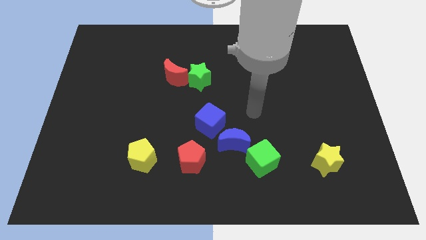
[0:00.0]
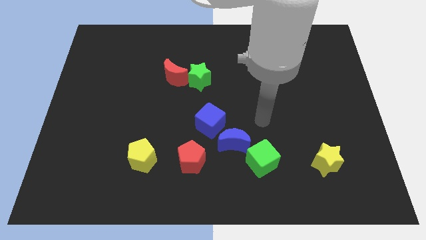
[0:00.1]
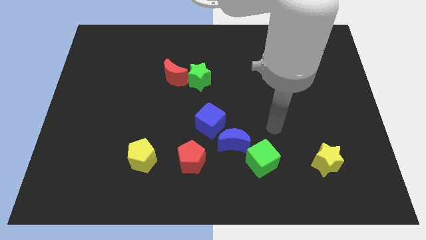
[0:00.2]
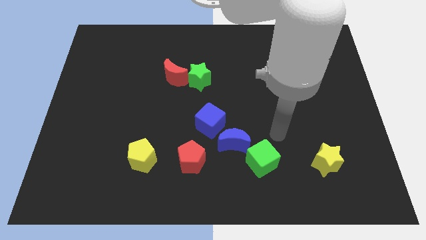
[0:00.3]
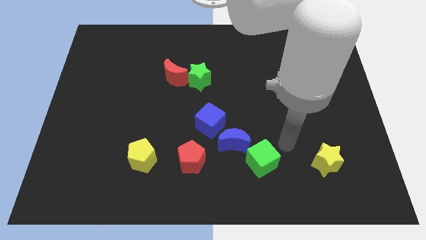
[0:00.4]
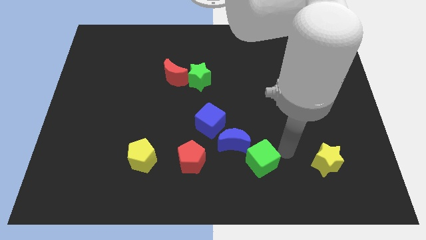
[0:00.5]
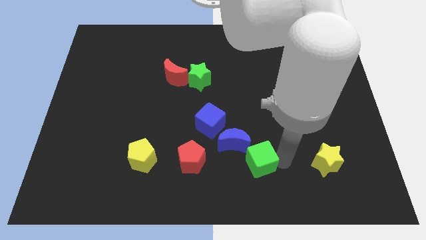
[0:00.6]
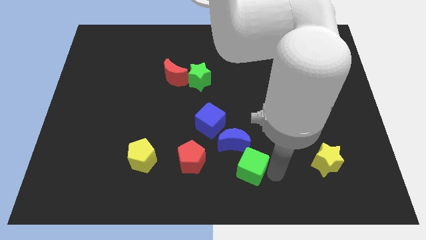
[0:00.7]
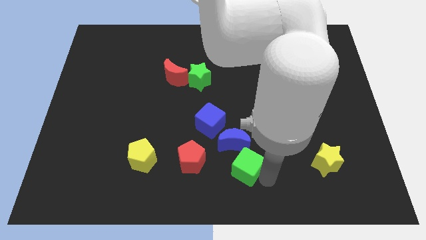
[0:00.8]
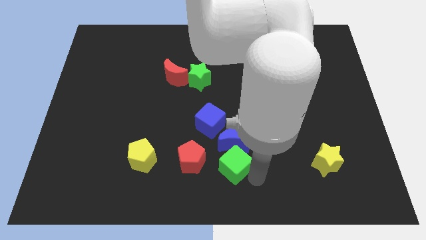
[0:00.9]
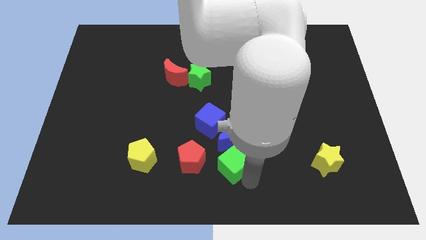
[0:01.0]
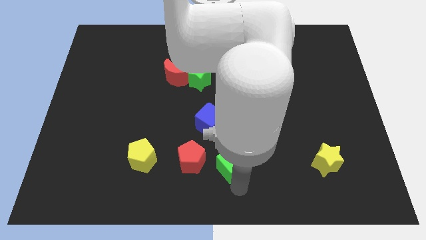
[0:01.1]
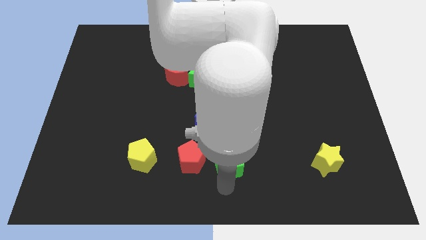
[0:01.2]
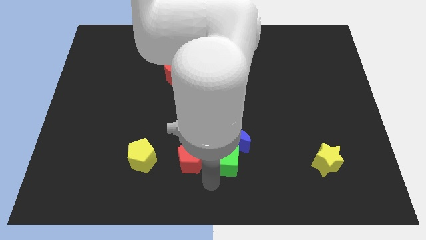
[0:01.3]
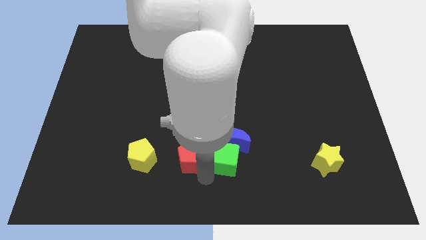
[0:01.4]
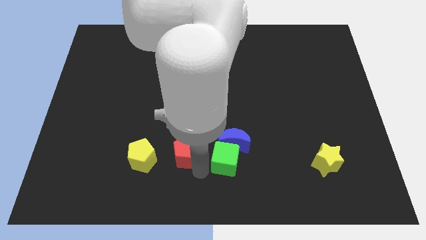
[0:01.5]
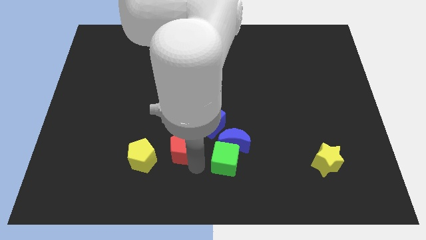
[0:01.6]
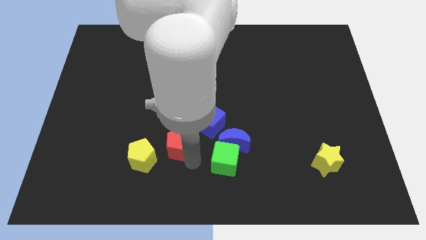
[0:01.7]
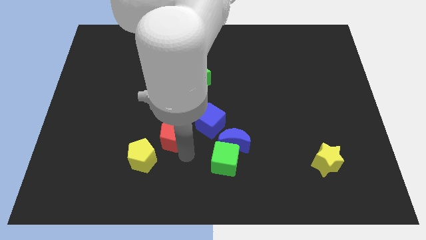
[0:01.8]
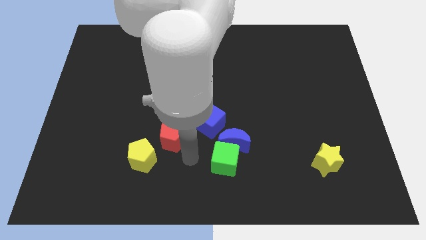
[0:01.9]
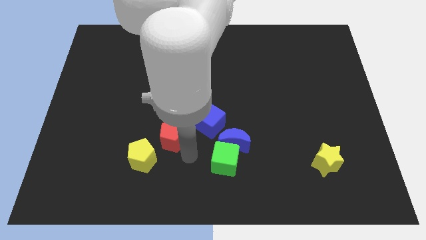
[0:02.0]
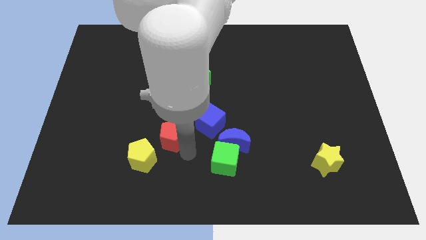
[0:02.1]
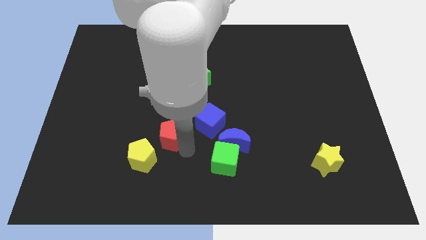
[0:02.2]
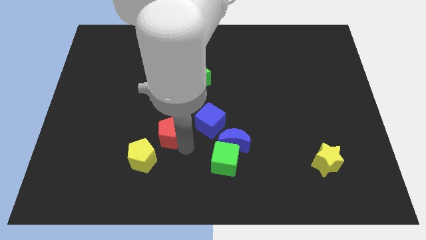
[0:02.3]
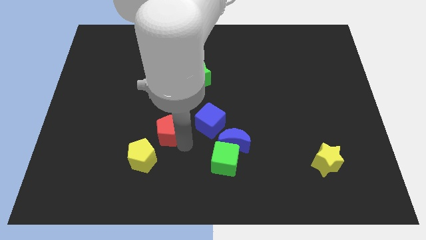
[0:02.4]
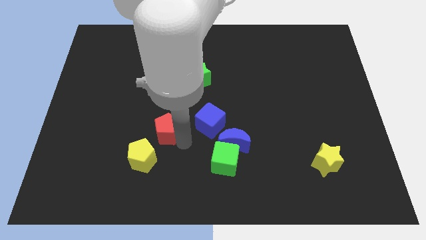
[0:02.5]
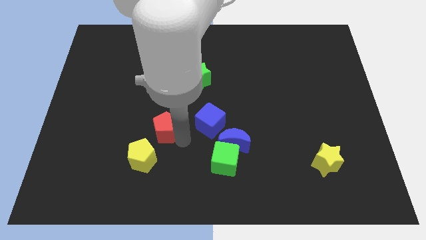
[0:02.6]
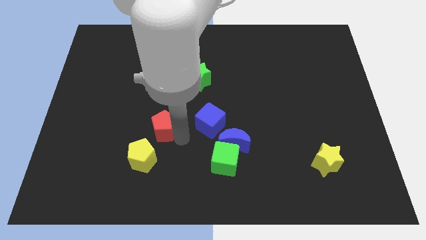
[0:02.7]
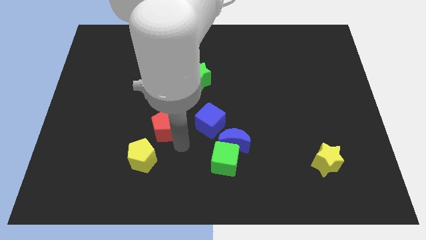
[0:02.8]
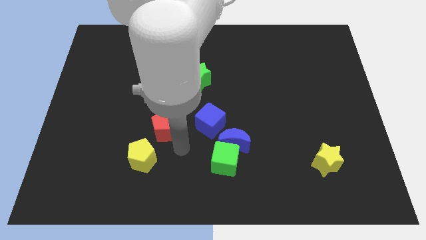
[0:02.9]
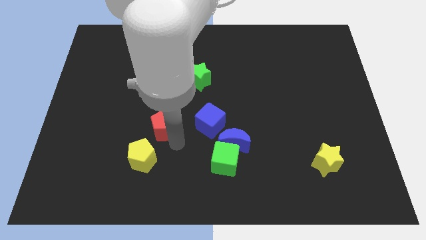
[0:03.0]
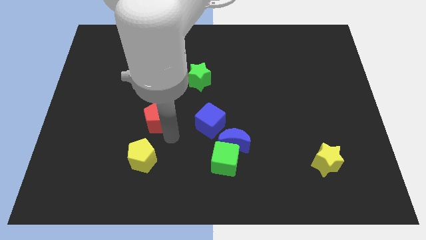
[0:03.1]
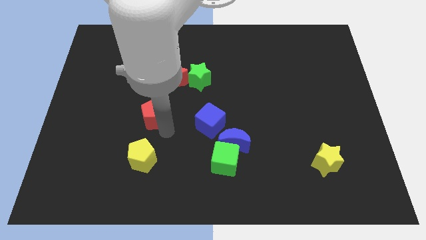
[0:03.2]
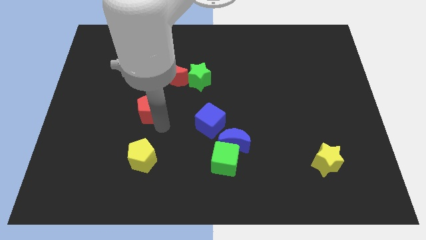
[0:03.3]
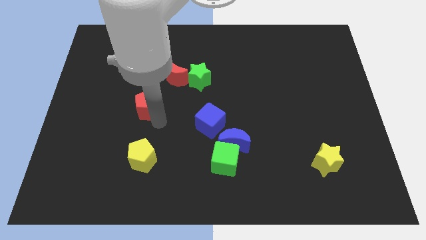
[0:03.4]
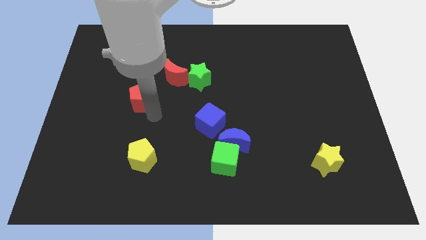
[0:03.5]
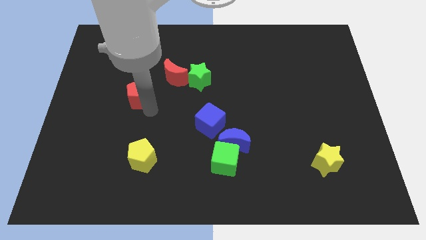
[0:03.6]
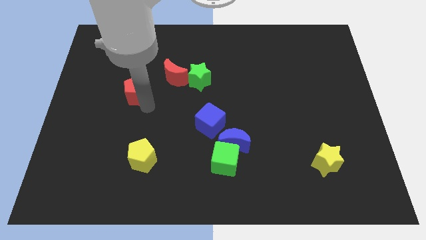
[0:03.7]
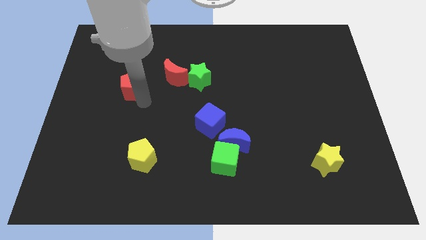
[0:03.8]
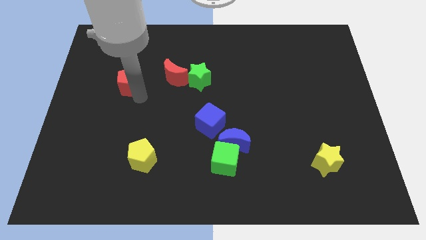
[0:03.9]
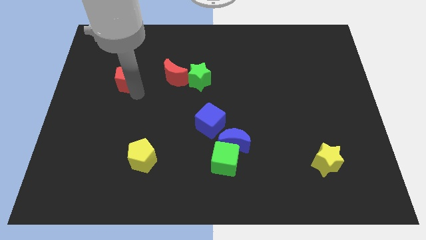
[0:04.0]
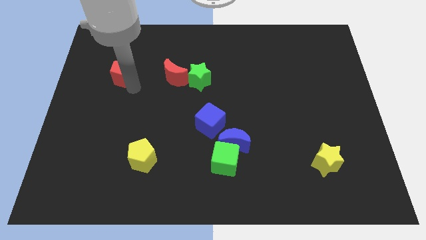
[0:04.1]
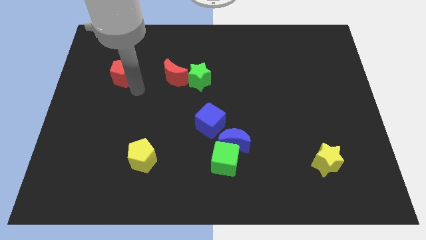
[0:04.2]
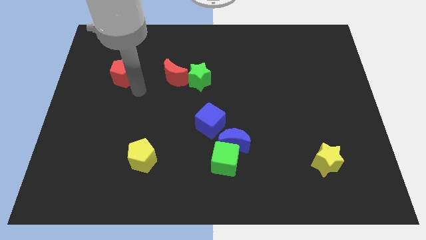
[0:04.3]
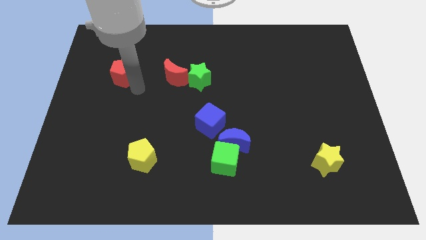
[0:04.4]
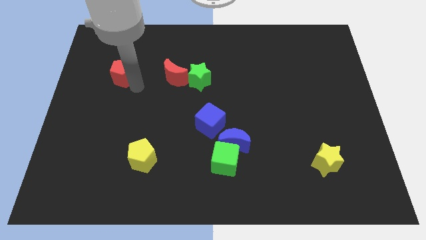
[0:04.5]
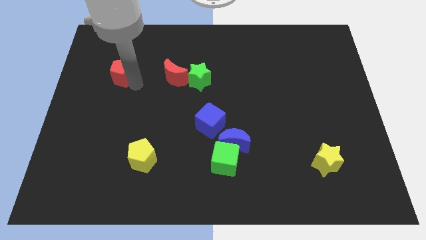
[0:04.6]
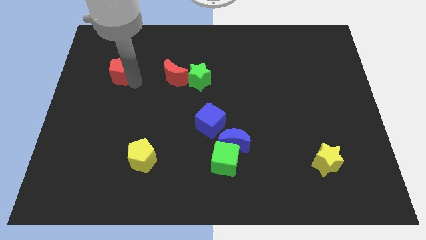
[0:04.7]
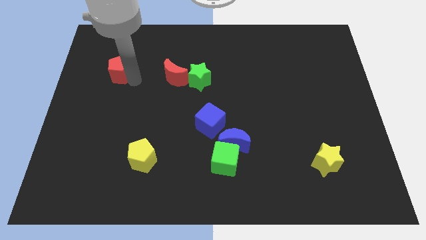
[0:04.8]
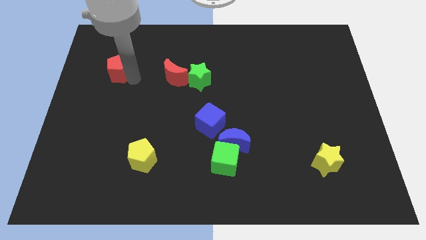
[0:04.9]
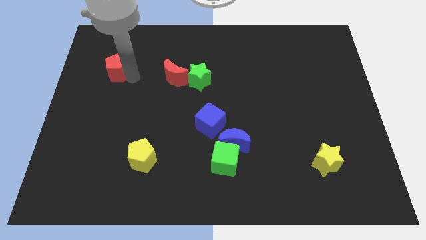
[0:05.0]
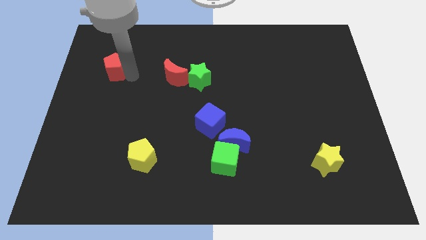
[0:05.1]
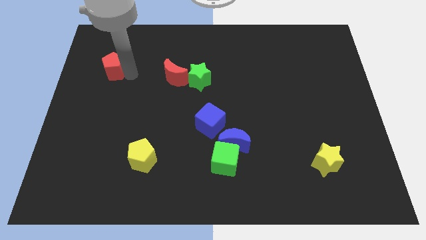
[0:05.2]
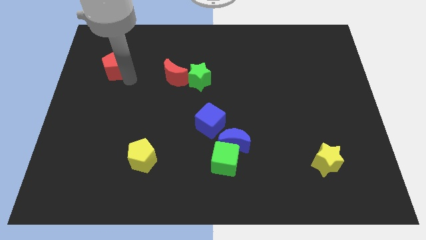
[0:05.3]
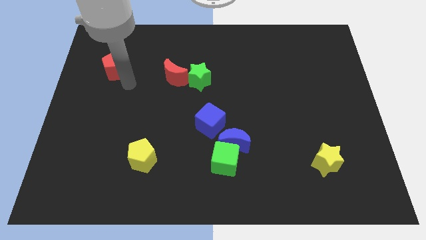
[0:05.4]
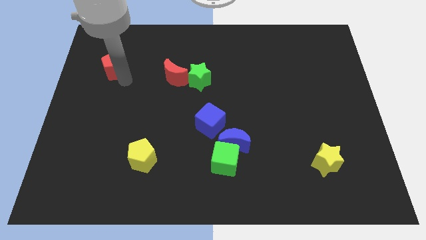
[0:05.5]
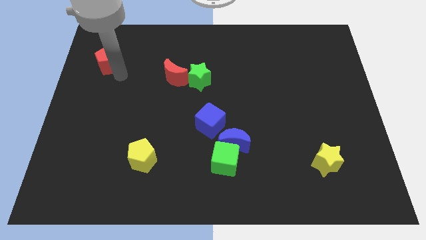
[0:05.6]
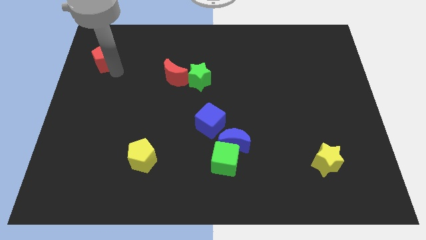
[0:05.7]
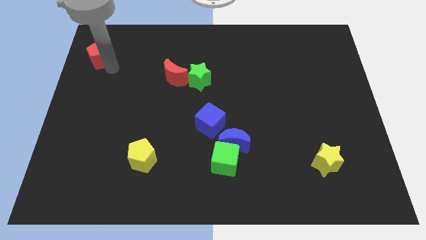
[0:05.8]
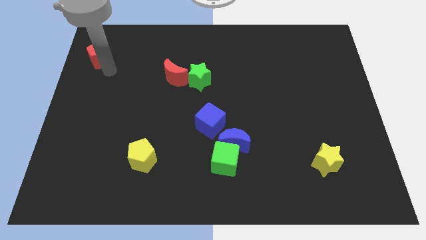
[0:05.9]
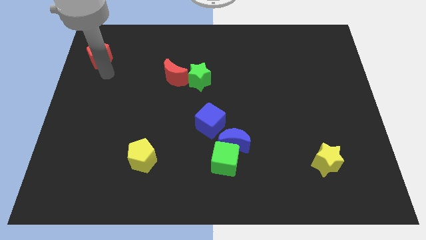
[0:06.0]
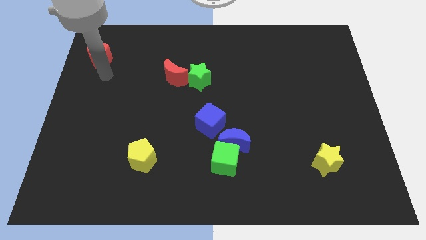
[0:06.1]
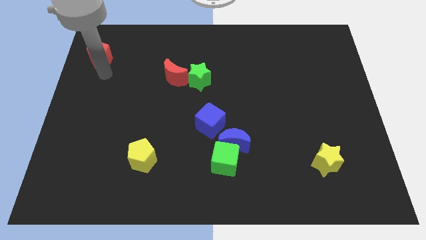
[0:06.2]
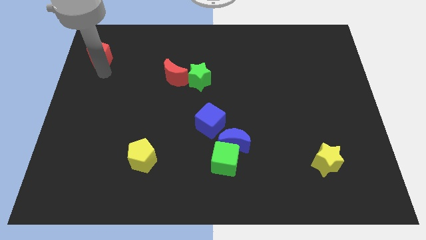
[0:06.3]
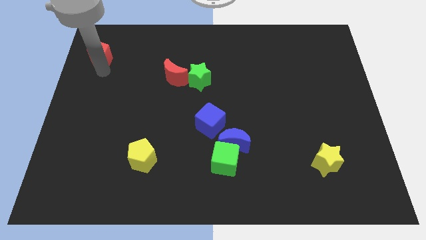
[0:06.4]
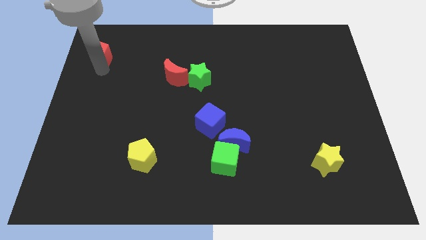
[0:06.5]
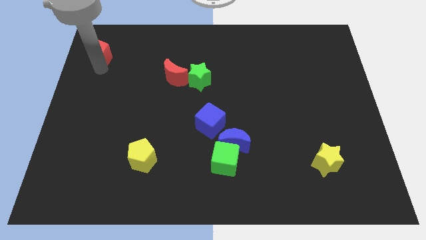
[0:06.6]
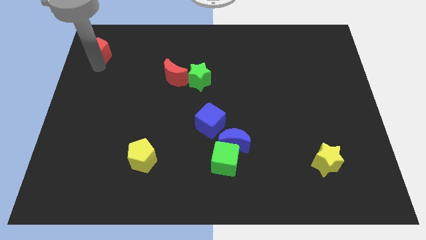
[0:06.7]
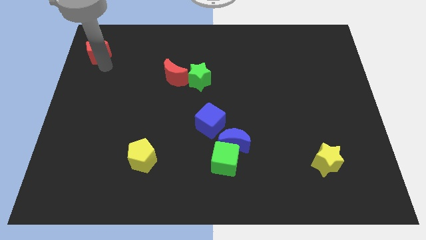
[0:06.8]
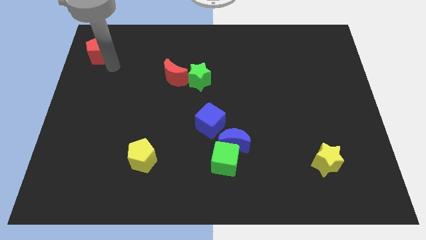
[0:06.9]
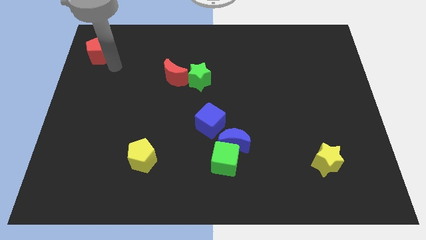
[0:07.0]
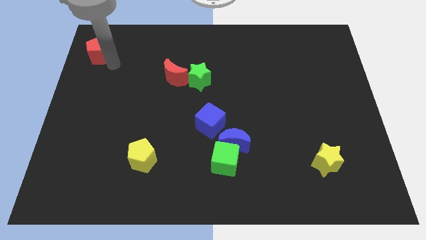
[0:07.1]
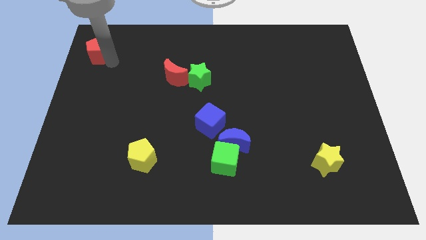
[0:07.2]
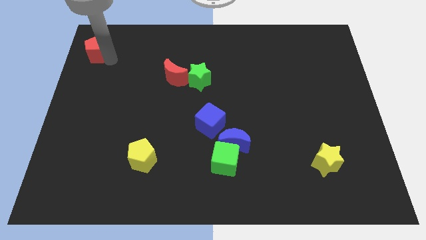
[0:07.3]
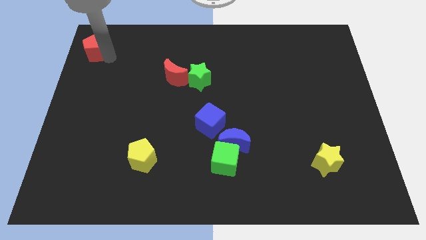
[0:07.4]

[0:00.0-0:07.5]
push the red pentagon to the top left of the board
